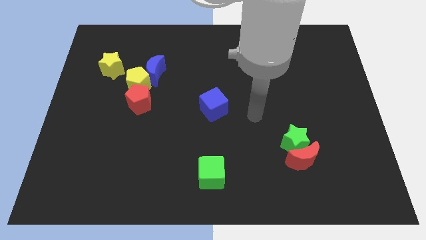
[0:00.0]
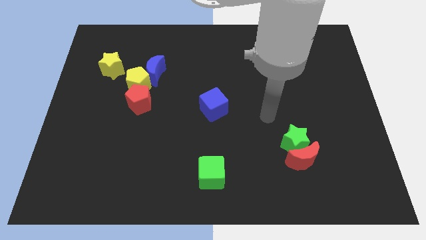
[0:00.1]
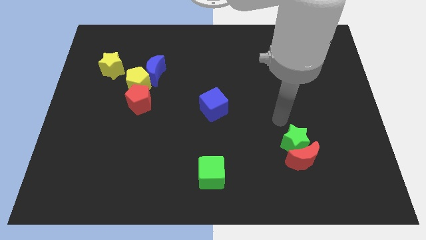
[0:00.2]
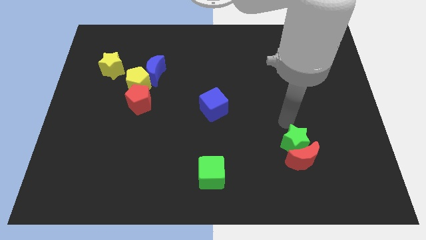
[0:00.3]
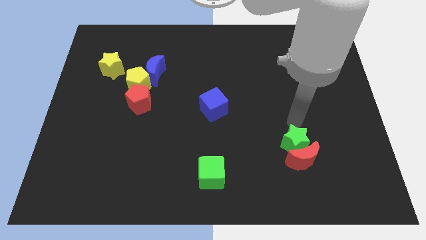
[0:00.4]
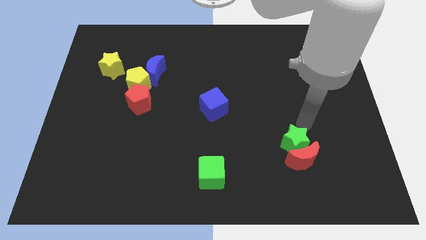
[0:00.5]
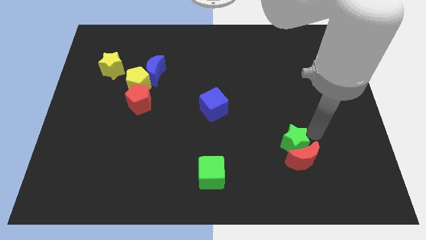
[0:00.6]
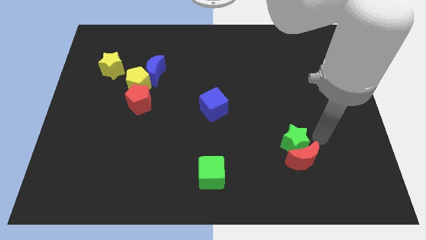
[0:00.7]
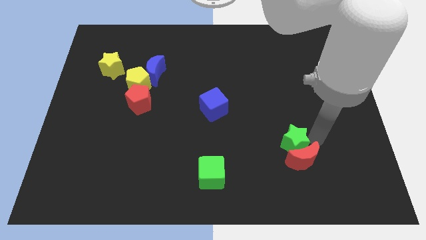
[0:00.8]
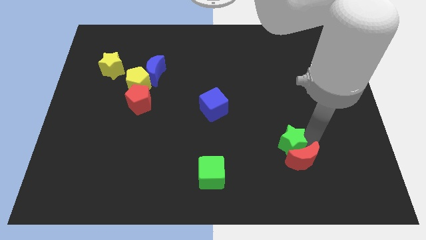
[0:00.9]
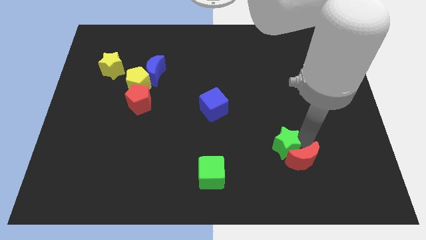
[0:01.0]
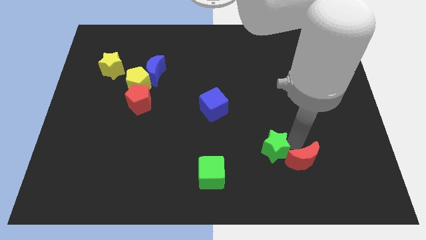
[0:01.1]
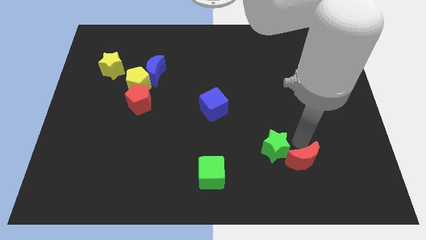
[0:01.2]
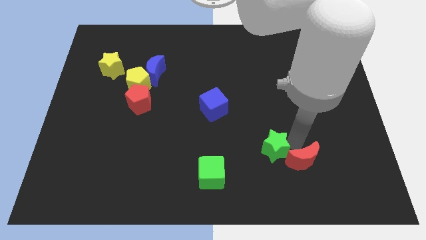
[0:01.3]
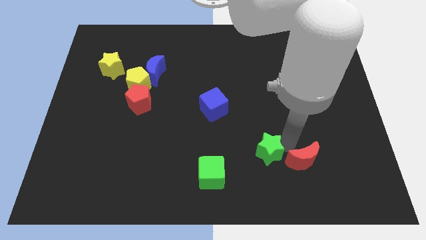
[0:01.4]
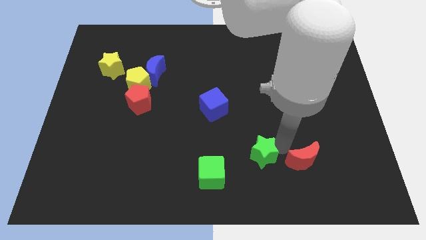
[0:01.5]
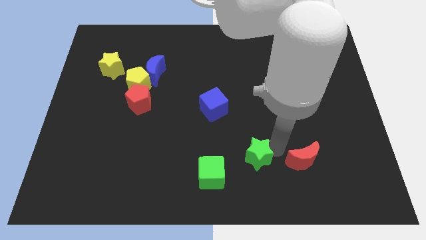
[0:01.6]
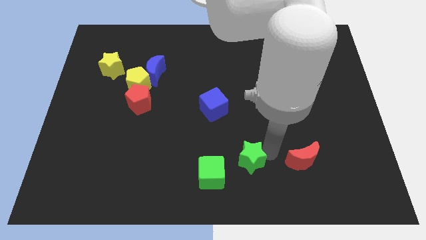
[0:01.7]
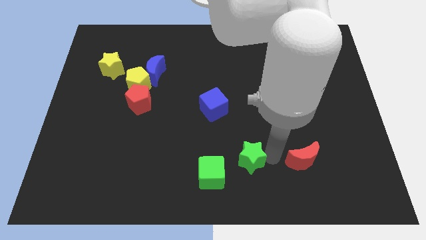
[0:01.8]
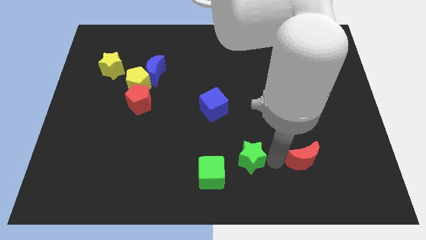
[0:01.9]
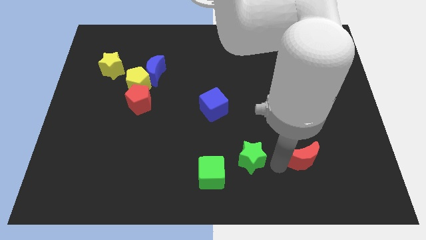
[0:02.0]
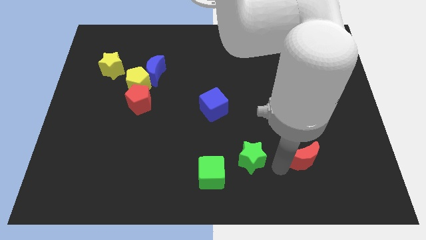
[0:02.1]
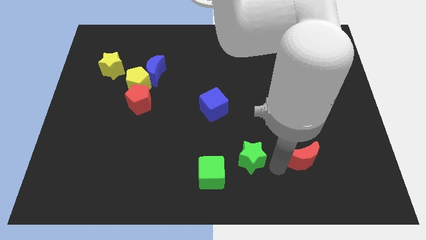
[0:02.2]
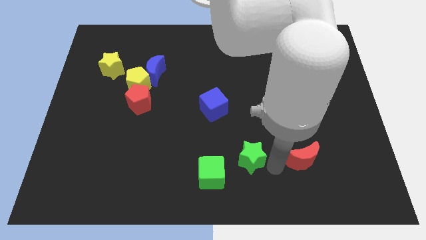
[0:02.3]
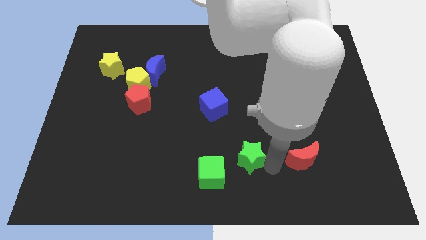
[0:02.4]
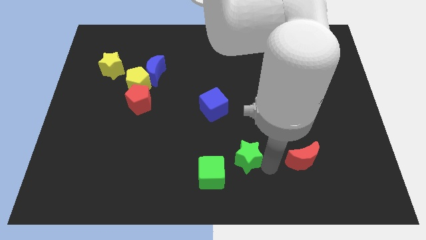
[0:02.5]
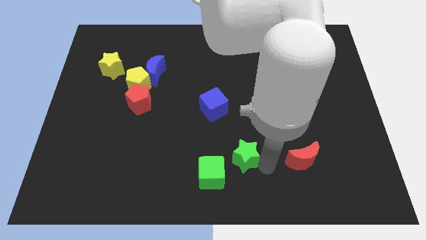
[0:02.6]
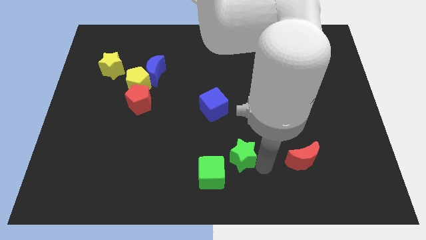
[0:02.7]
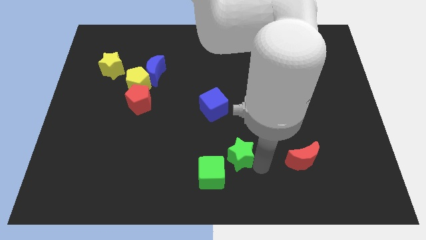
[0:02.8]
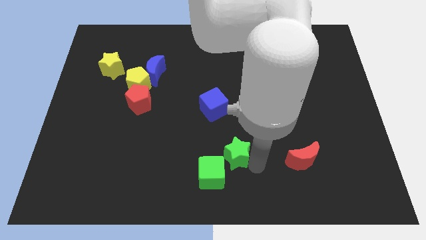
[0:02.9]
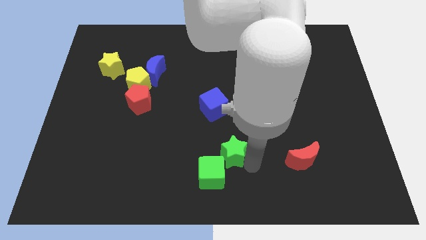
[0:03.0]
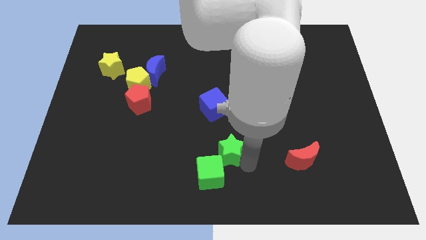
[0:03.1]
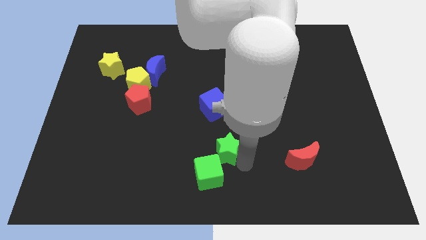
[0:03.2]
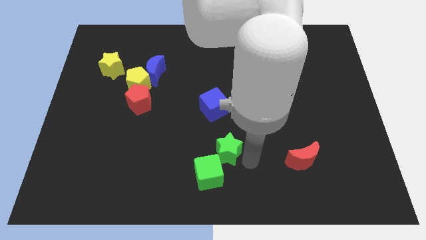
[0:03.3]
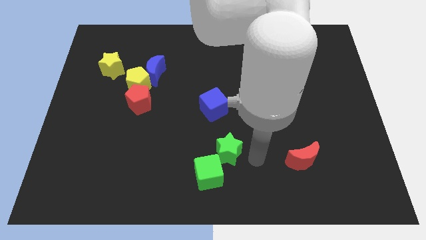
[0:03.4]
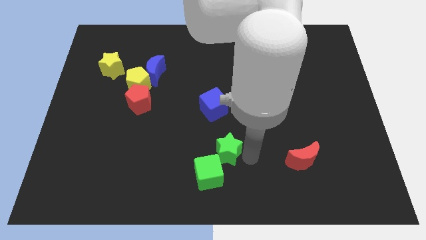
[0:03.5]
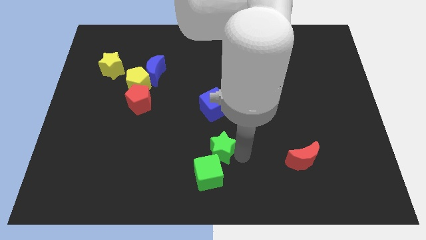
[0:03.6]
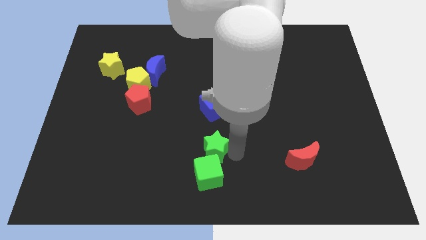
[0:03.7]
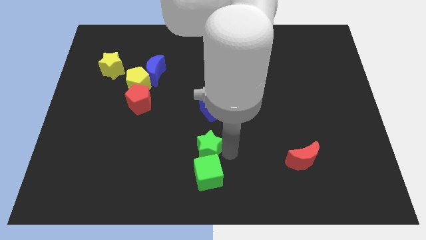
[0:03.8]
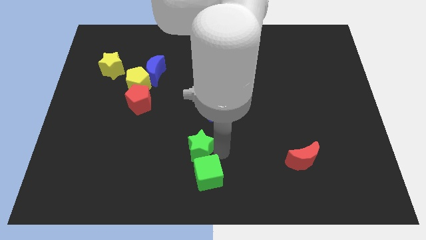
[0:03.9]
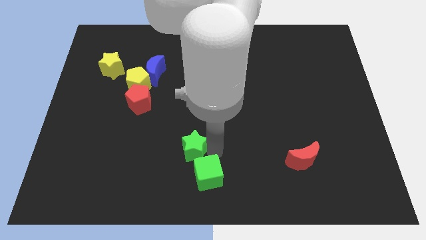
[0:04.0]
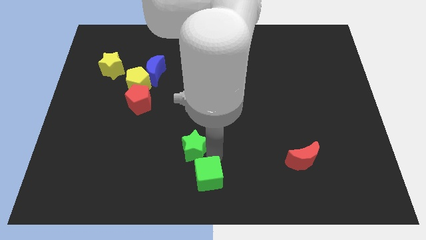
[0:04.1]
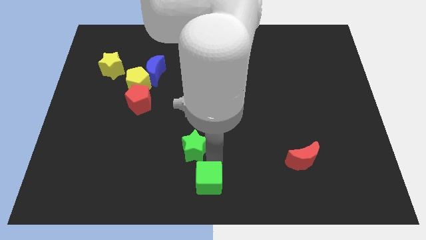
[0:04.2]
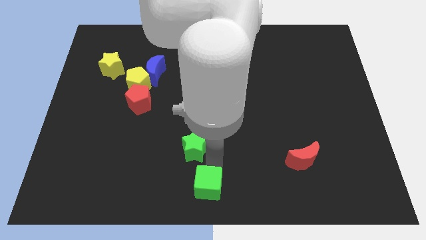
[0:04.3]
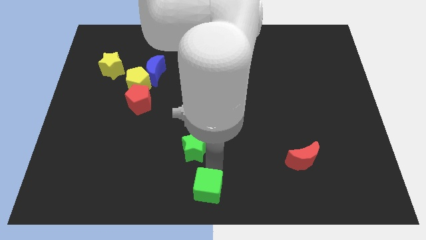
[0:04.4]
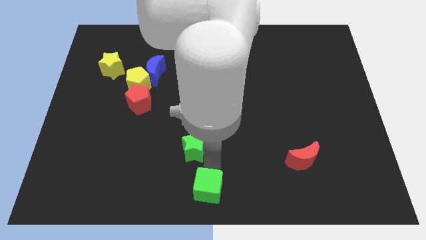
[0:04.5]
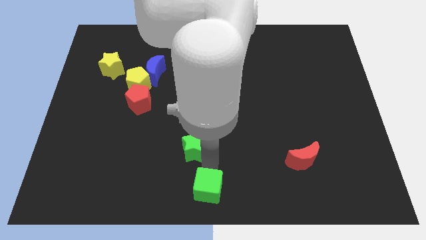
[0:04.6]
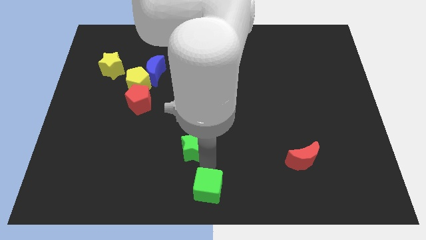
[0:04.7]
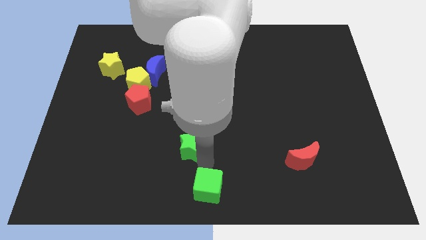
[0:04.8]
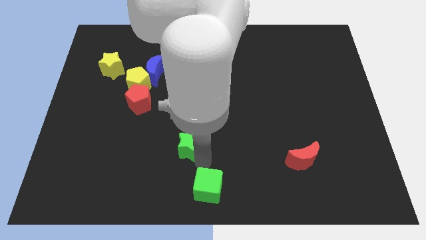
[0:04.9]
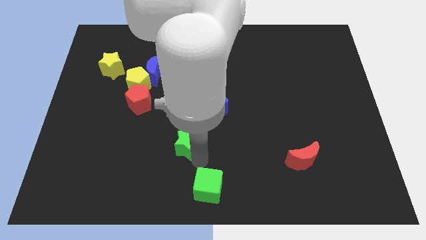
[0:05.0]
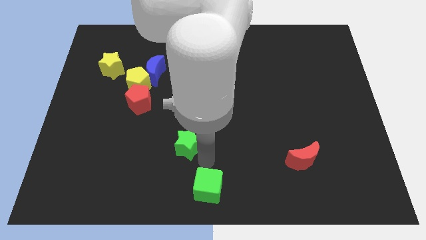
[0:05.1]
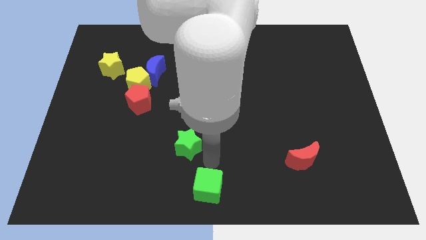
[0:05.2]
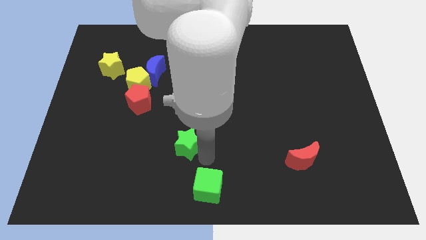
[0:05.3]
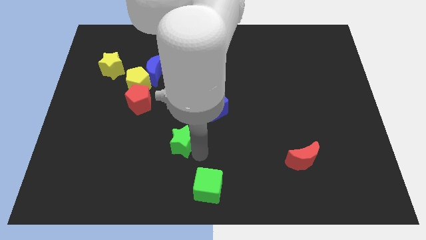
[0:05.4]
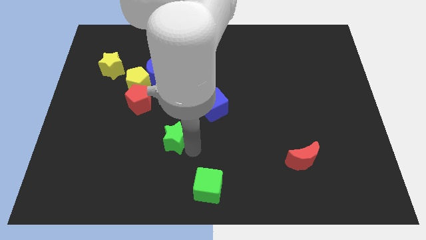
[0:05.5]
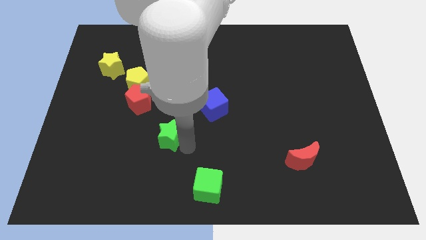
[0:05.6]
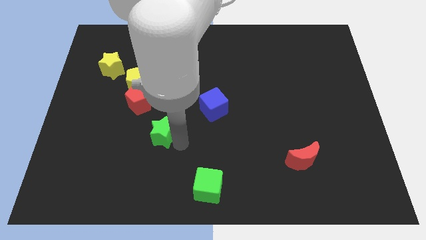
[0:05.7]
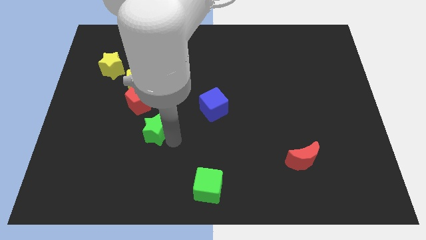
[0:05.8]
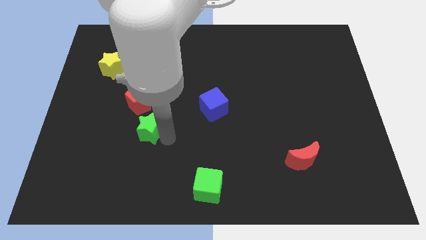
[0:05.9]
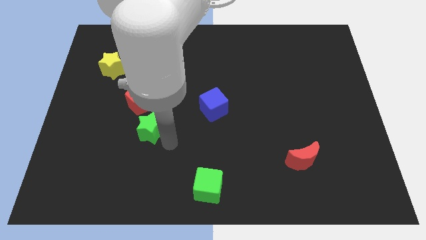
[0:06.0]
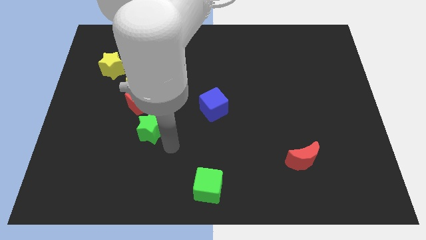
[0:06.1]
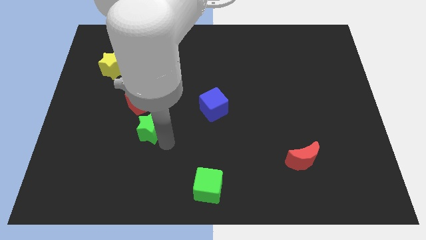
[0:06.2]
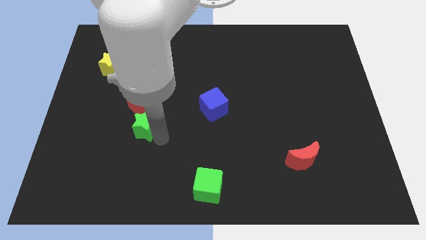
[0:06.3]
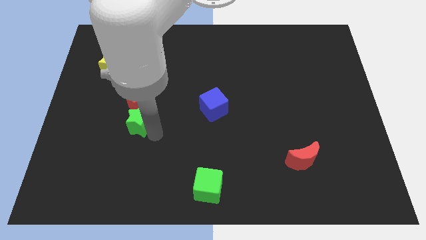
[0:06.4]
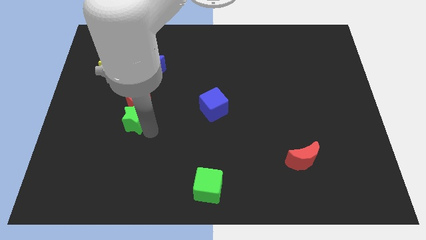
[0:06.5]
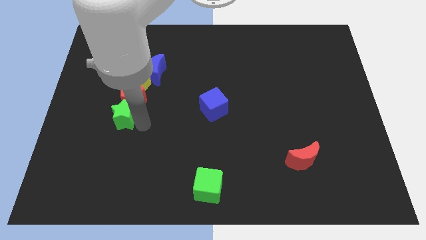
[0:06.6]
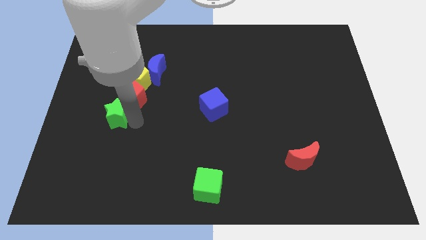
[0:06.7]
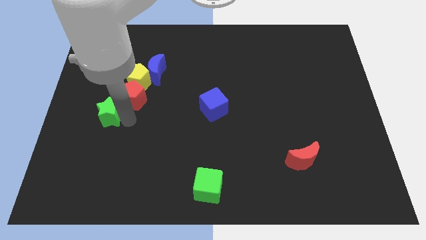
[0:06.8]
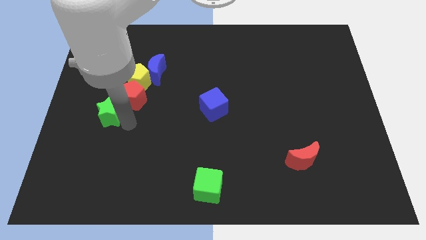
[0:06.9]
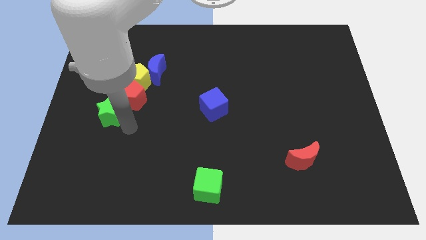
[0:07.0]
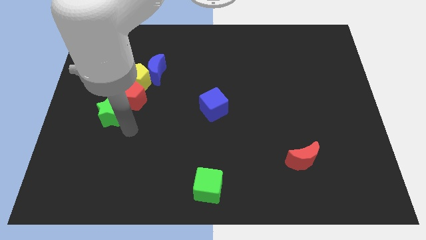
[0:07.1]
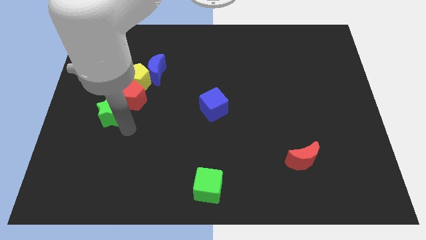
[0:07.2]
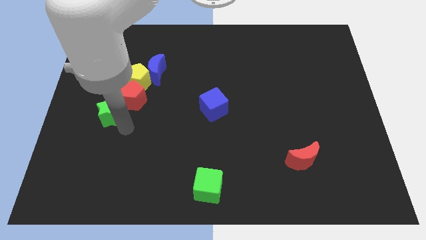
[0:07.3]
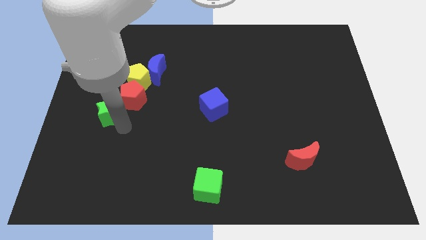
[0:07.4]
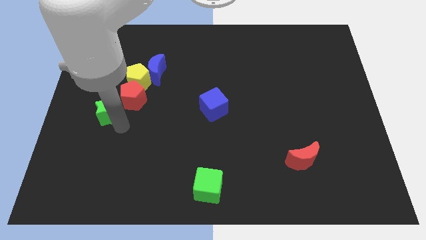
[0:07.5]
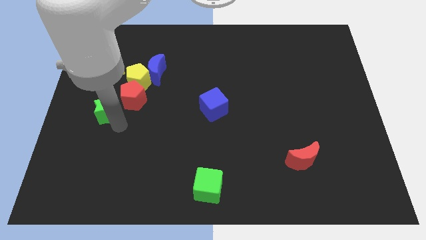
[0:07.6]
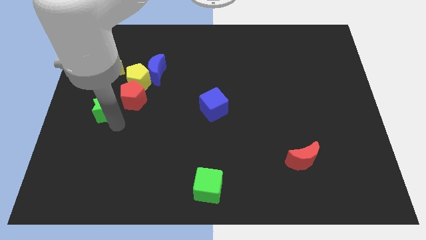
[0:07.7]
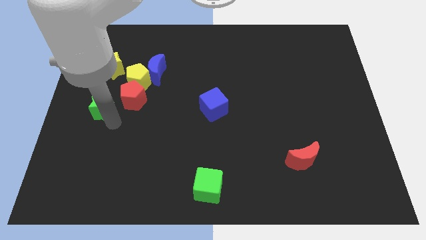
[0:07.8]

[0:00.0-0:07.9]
slide the green star to the left side of the board
